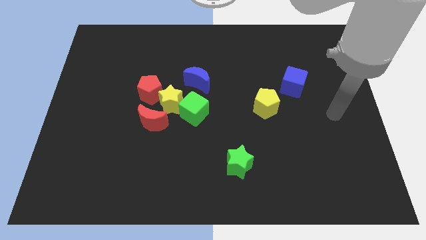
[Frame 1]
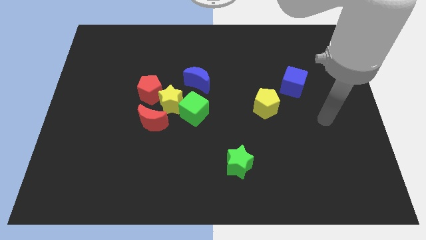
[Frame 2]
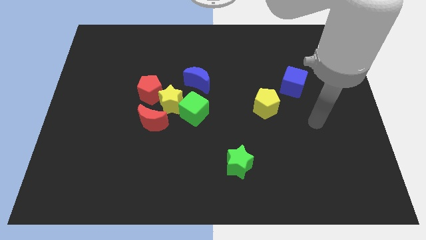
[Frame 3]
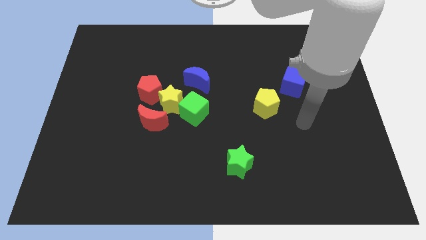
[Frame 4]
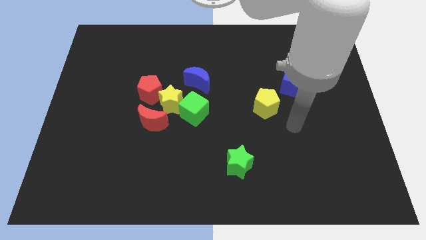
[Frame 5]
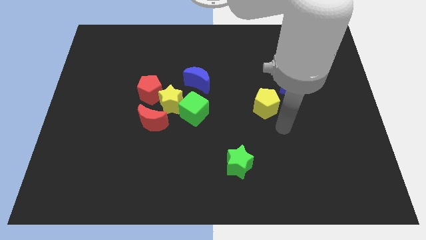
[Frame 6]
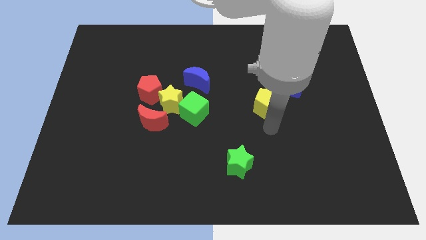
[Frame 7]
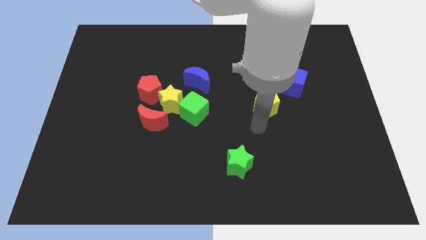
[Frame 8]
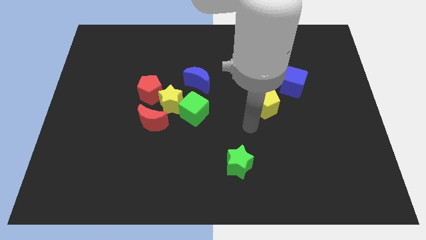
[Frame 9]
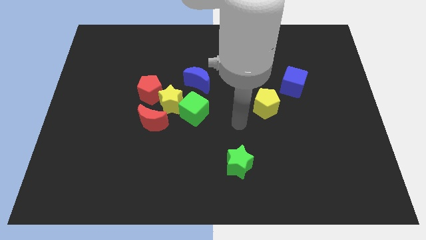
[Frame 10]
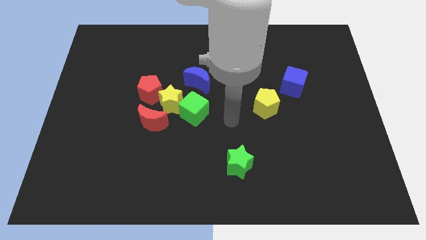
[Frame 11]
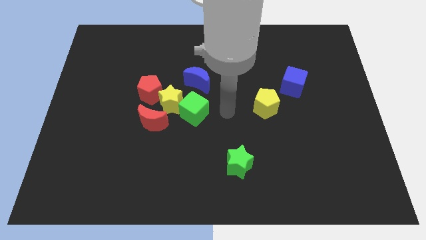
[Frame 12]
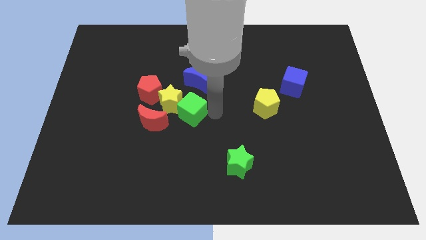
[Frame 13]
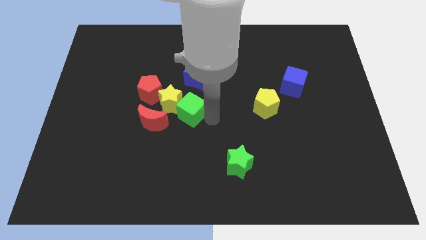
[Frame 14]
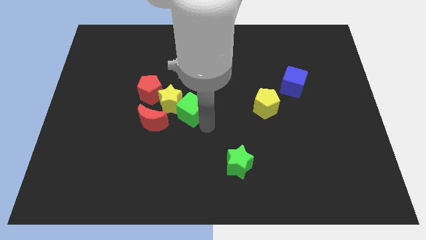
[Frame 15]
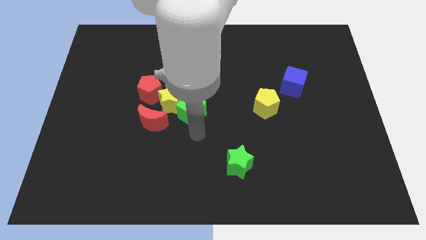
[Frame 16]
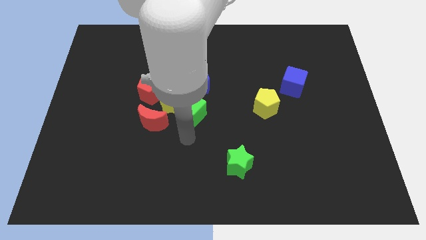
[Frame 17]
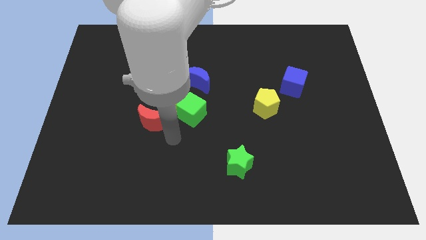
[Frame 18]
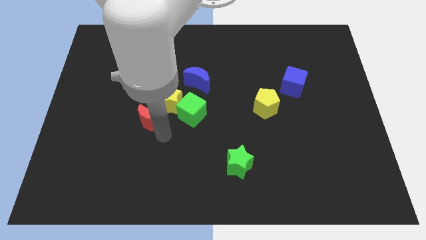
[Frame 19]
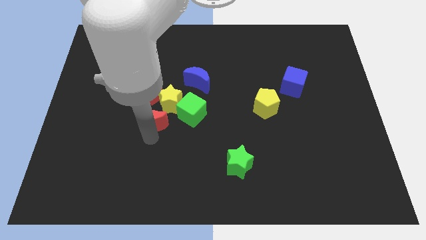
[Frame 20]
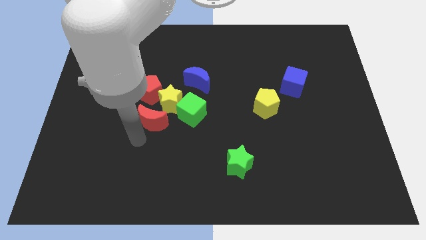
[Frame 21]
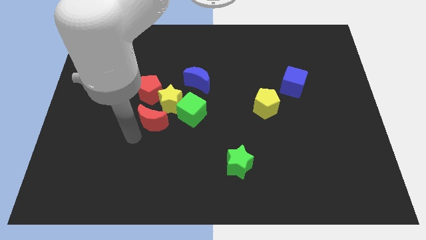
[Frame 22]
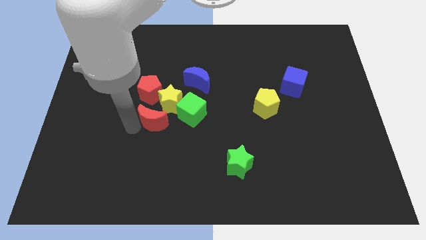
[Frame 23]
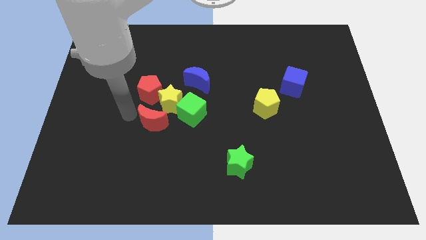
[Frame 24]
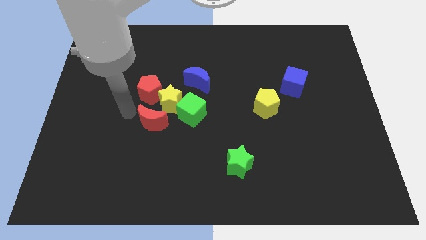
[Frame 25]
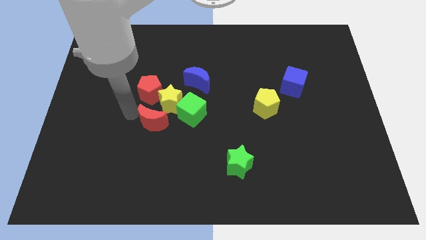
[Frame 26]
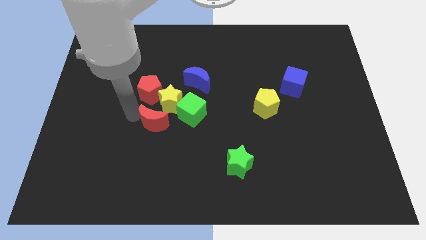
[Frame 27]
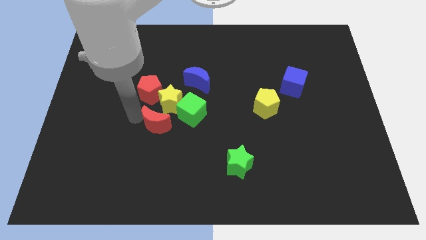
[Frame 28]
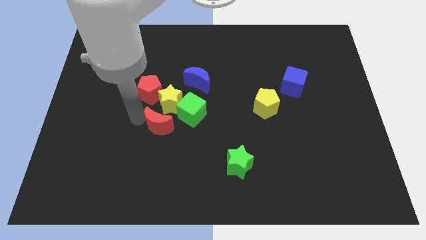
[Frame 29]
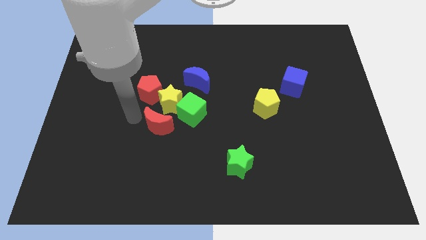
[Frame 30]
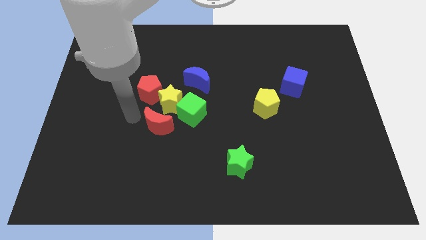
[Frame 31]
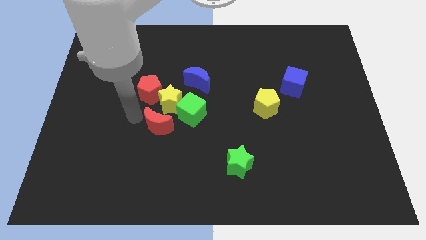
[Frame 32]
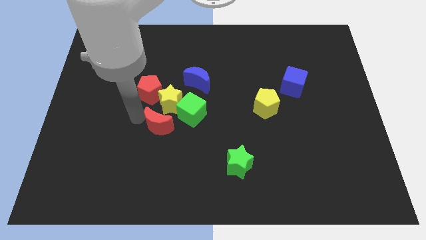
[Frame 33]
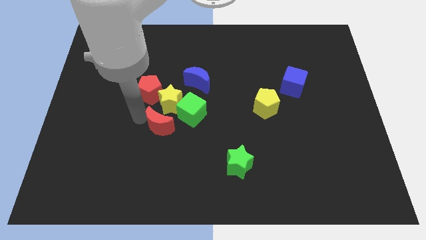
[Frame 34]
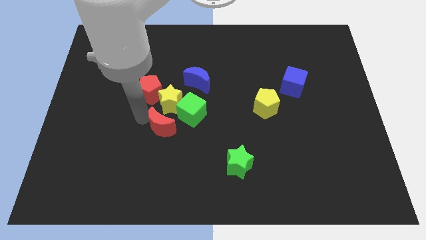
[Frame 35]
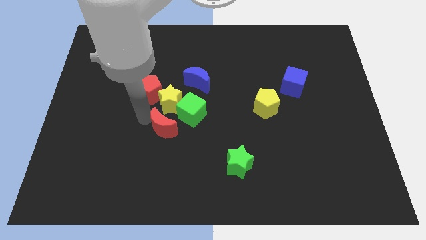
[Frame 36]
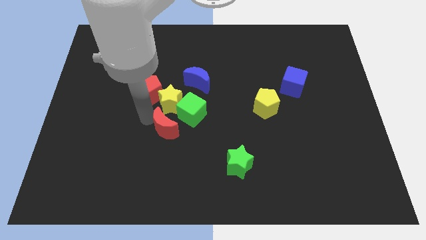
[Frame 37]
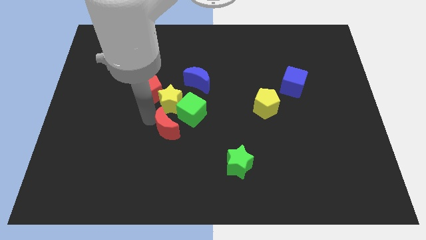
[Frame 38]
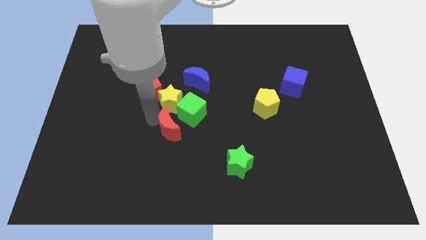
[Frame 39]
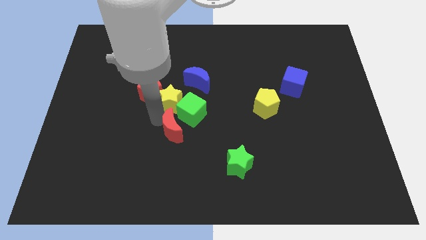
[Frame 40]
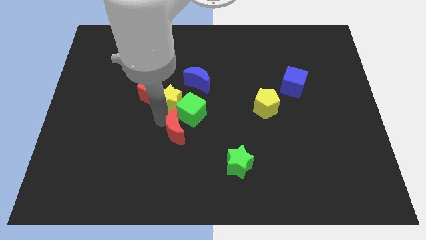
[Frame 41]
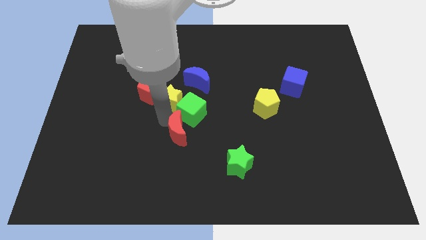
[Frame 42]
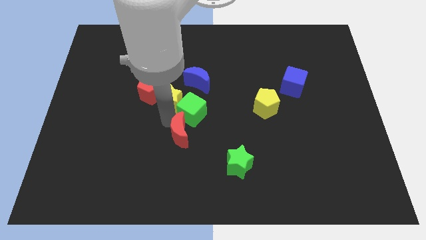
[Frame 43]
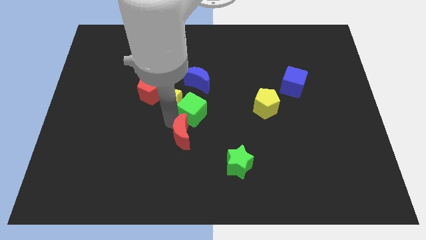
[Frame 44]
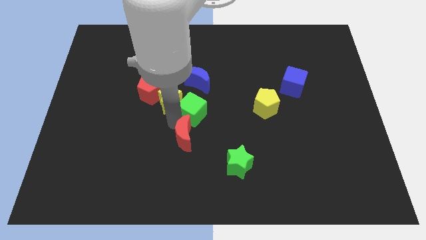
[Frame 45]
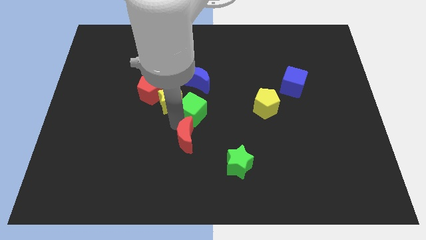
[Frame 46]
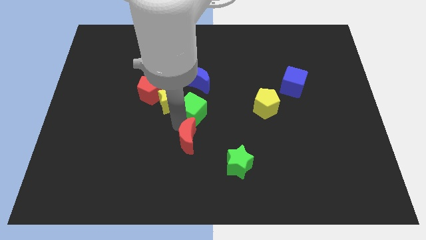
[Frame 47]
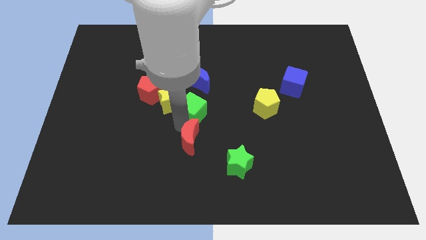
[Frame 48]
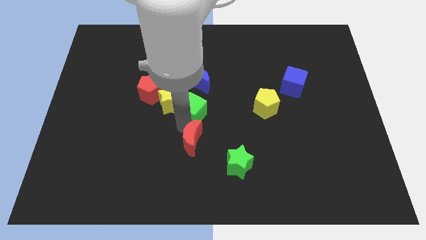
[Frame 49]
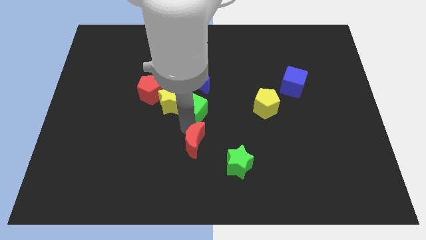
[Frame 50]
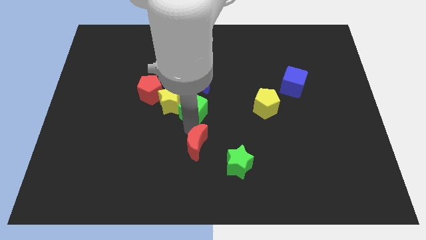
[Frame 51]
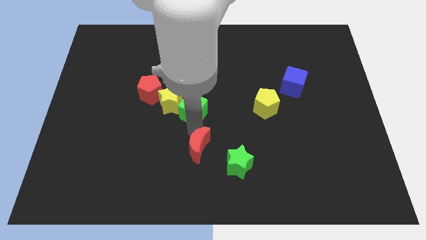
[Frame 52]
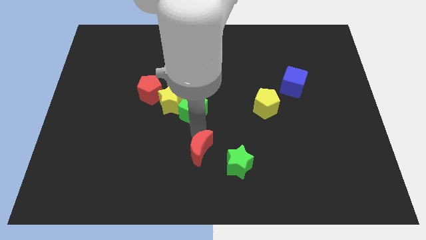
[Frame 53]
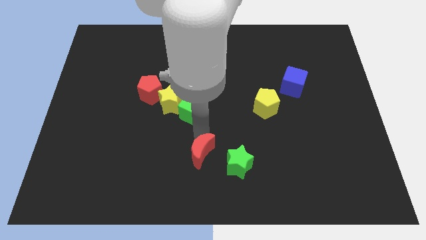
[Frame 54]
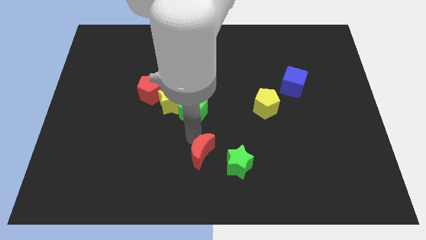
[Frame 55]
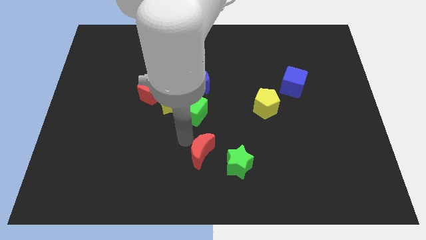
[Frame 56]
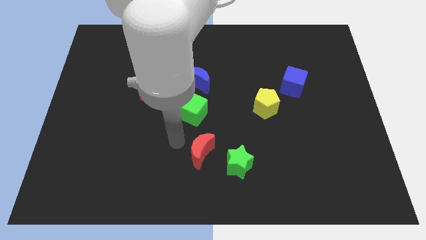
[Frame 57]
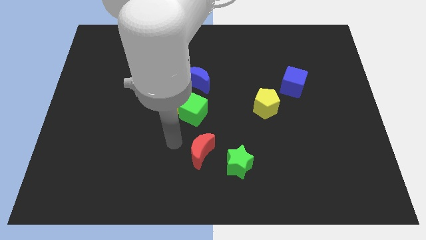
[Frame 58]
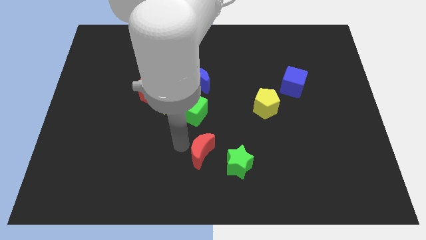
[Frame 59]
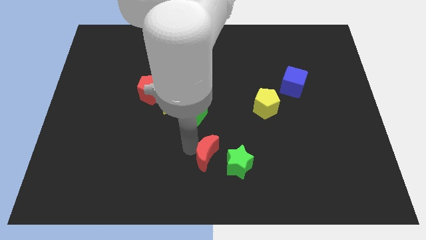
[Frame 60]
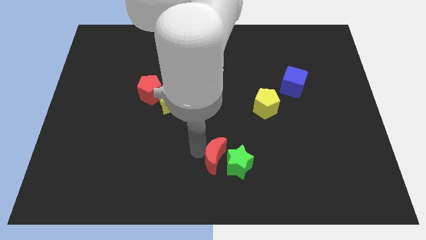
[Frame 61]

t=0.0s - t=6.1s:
slide the red moon to the green star

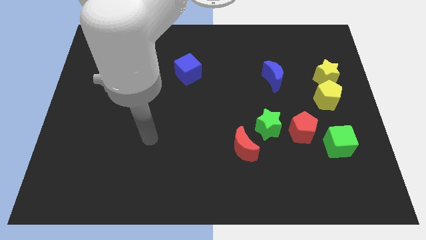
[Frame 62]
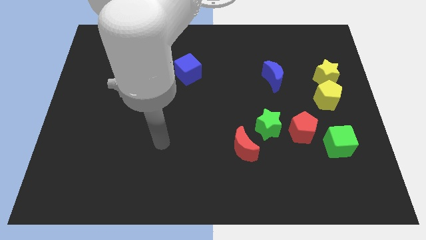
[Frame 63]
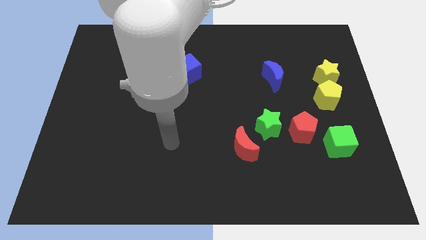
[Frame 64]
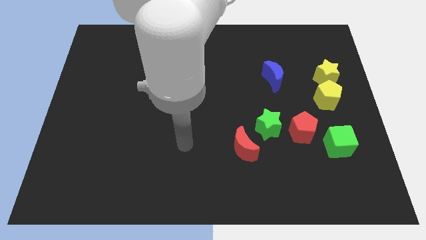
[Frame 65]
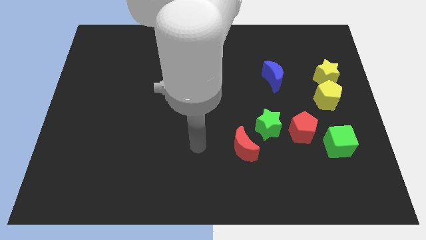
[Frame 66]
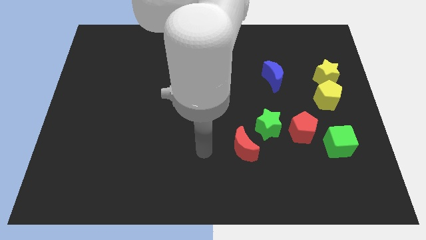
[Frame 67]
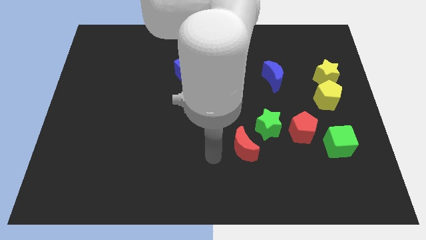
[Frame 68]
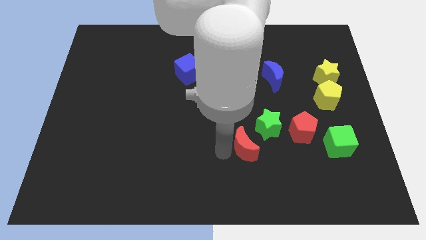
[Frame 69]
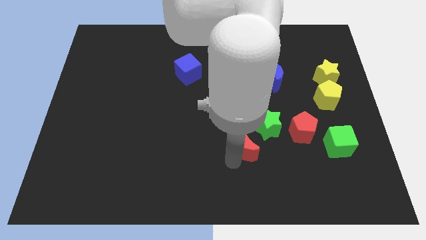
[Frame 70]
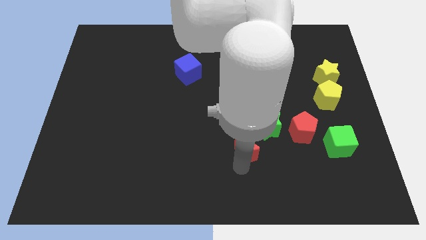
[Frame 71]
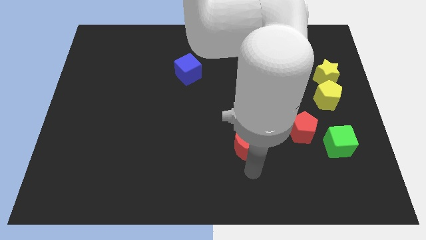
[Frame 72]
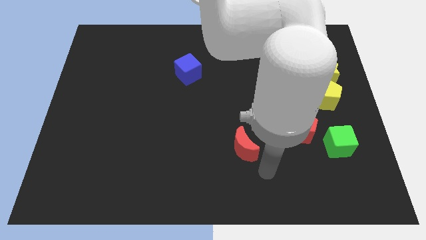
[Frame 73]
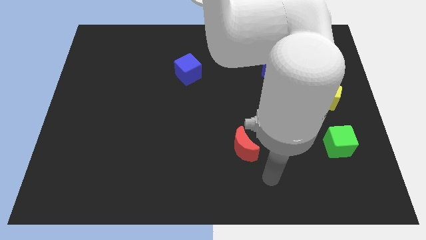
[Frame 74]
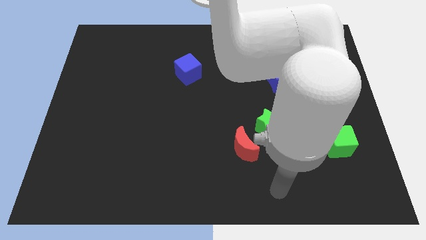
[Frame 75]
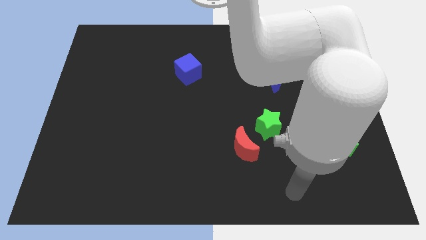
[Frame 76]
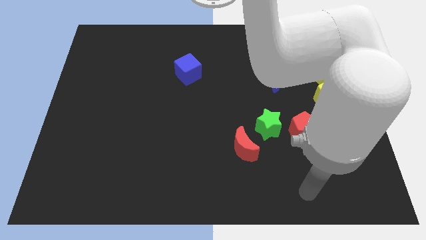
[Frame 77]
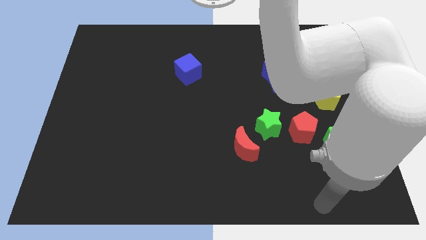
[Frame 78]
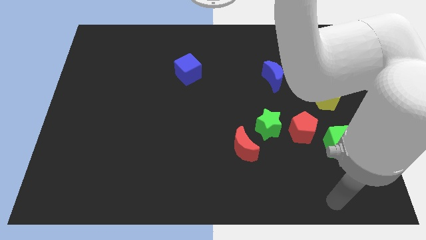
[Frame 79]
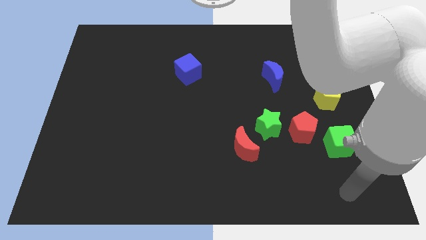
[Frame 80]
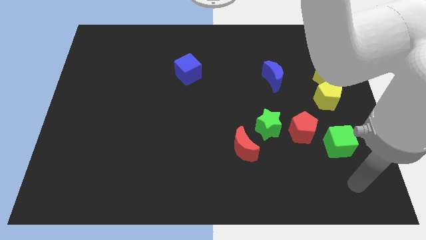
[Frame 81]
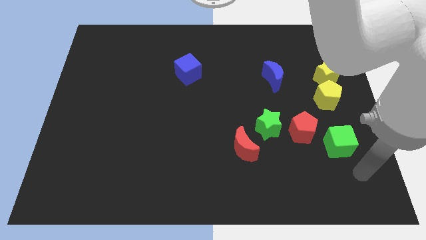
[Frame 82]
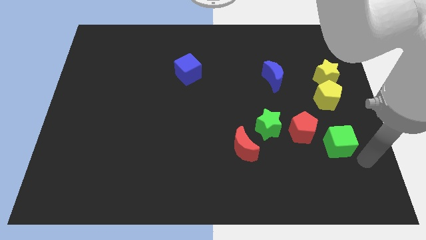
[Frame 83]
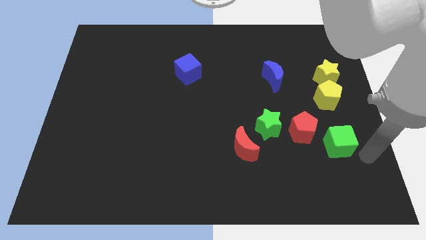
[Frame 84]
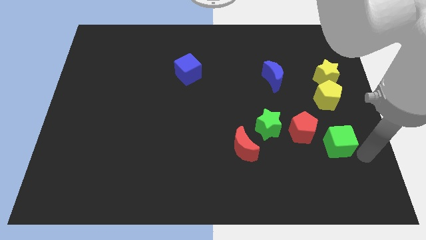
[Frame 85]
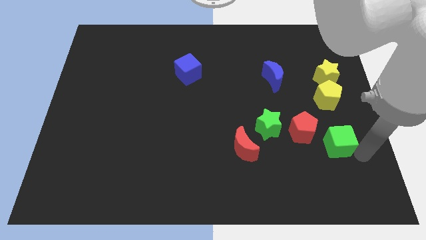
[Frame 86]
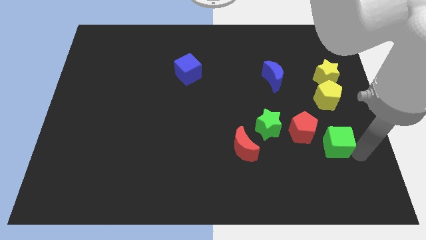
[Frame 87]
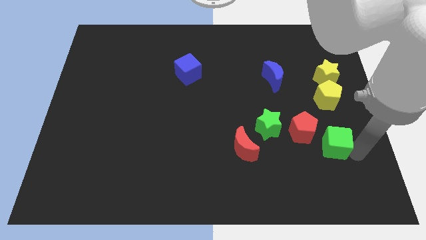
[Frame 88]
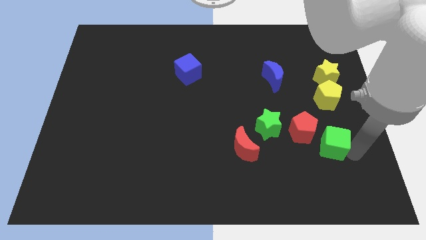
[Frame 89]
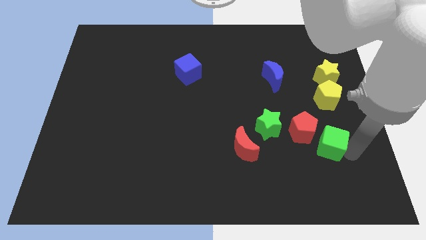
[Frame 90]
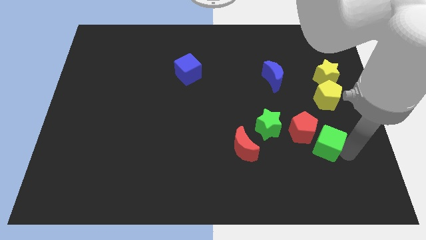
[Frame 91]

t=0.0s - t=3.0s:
push the green cube to the red pentagon
